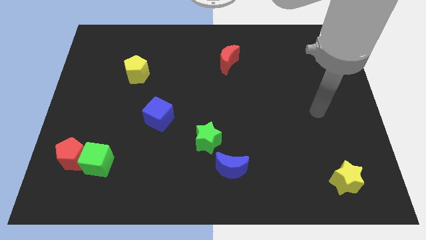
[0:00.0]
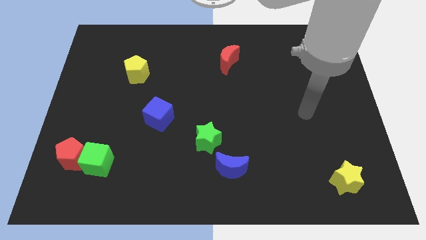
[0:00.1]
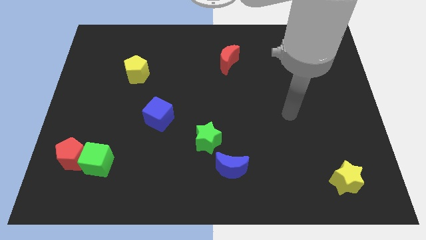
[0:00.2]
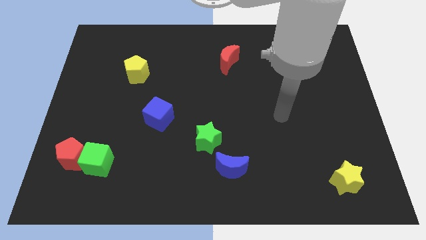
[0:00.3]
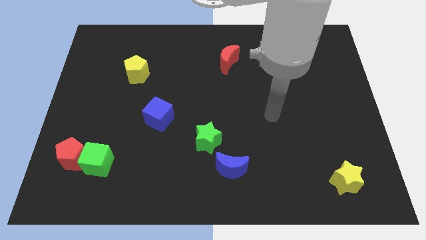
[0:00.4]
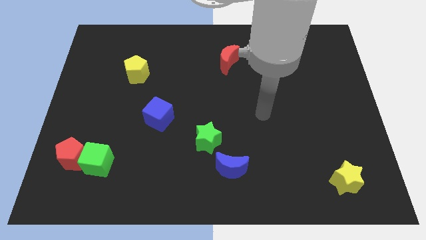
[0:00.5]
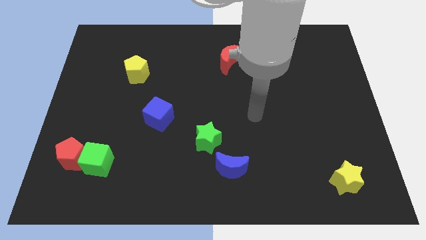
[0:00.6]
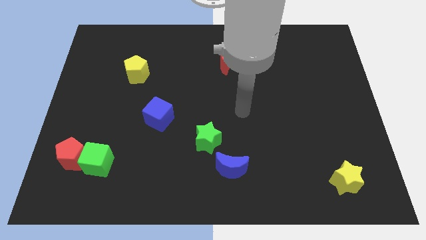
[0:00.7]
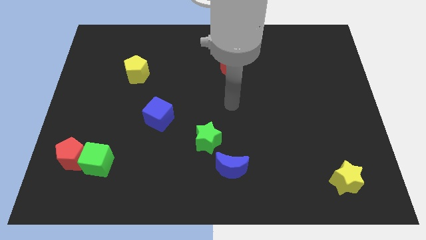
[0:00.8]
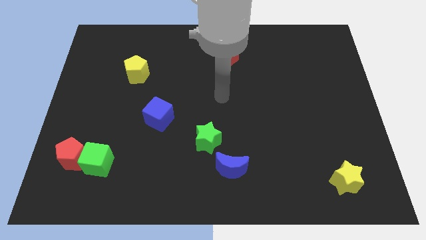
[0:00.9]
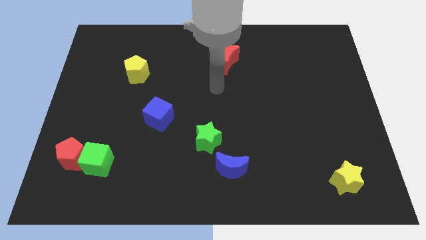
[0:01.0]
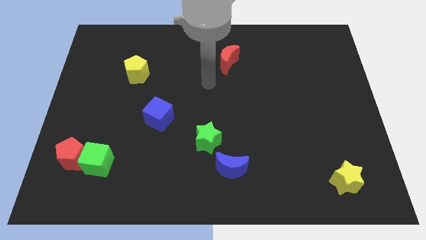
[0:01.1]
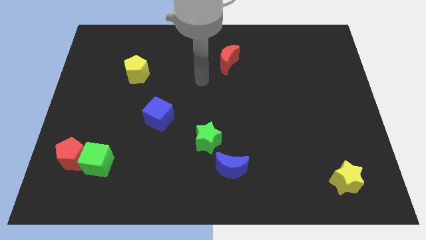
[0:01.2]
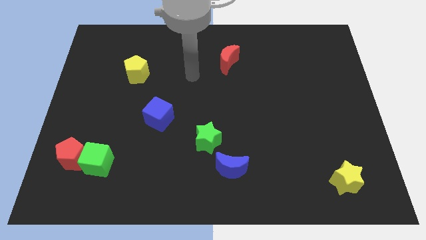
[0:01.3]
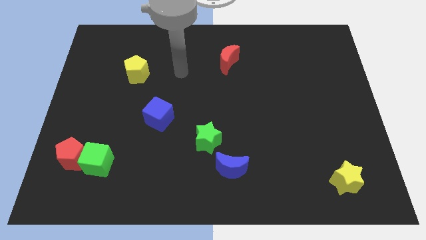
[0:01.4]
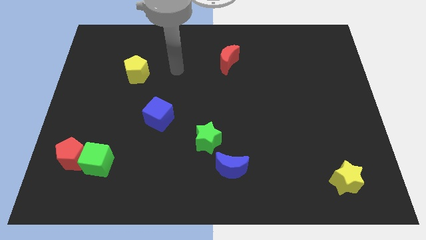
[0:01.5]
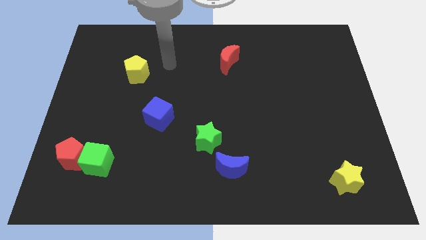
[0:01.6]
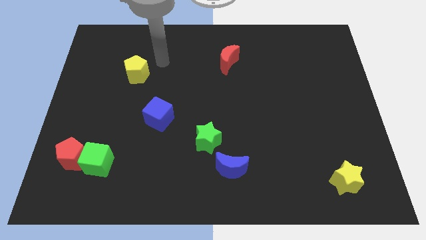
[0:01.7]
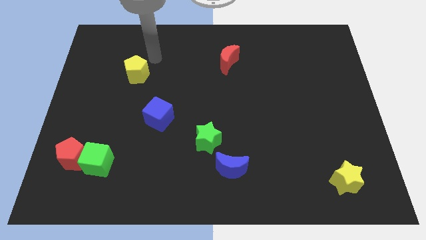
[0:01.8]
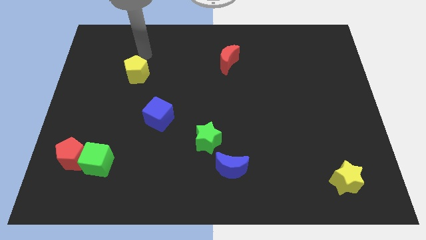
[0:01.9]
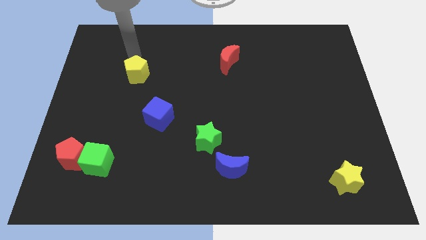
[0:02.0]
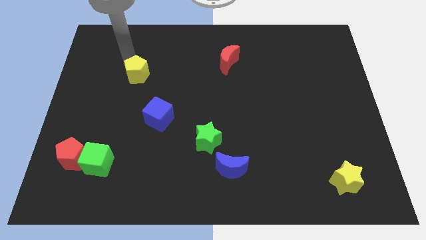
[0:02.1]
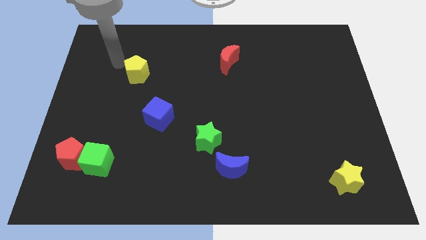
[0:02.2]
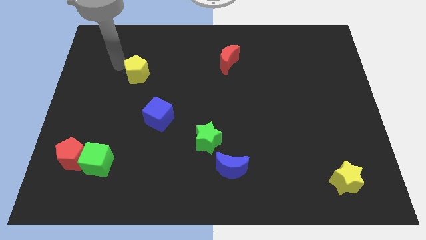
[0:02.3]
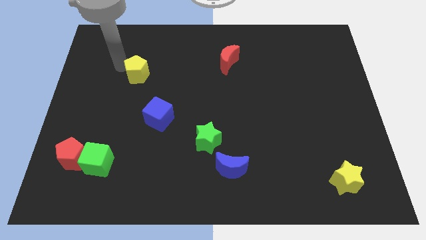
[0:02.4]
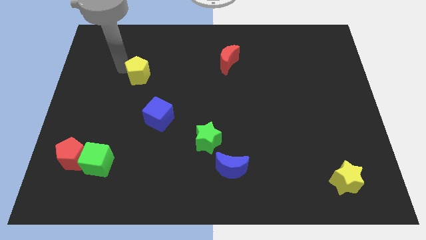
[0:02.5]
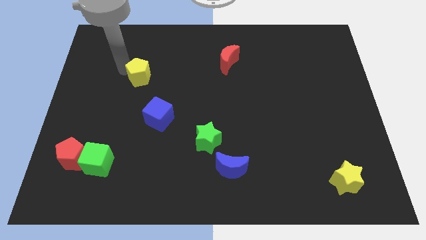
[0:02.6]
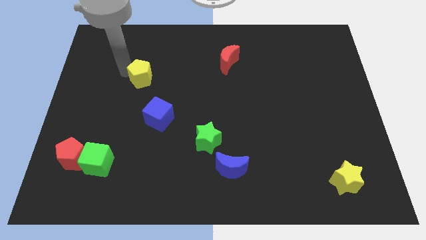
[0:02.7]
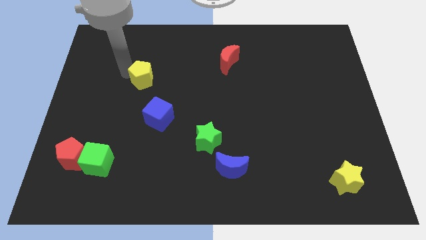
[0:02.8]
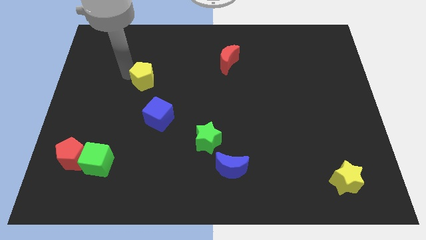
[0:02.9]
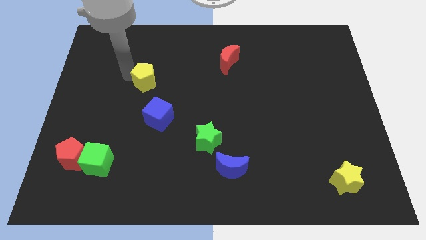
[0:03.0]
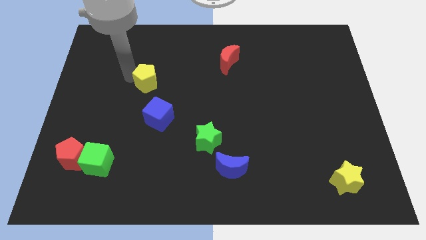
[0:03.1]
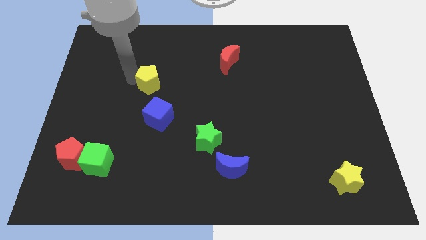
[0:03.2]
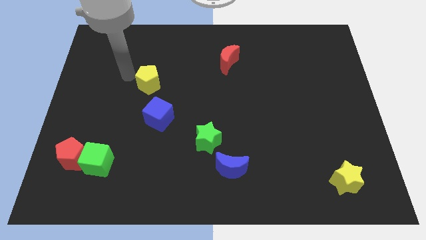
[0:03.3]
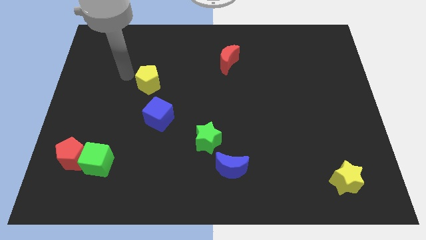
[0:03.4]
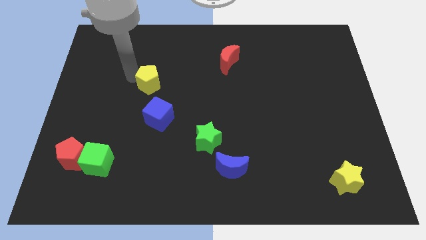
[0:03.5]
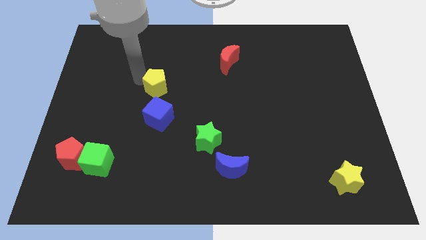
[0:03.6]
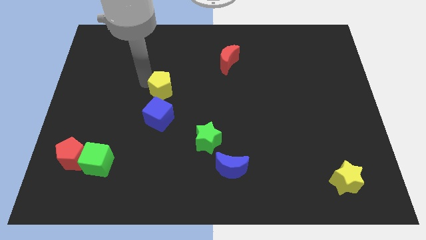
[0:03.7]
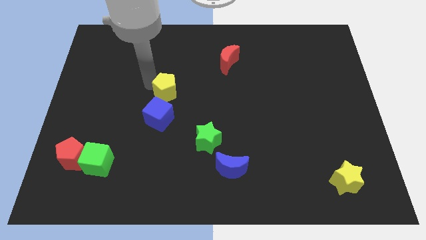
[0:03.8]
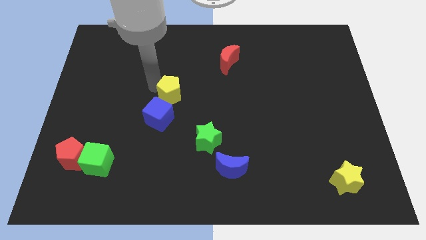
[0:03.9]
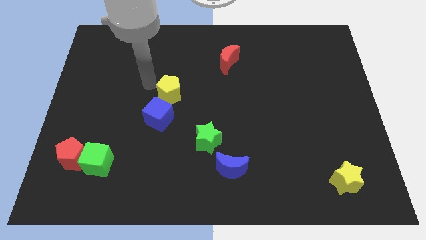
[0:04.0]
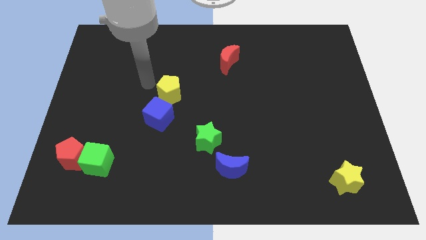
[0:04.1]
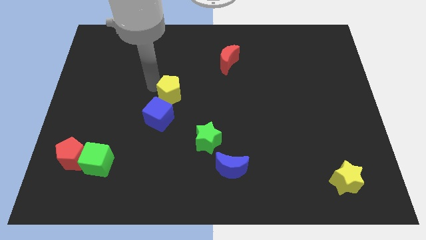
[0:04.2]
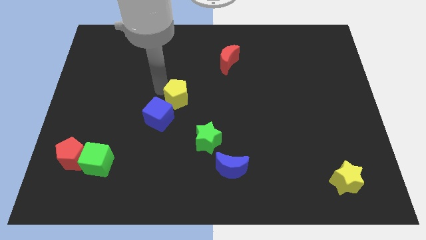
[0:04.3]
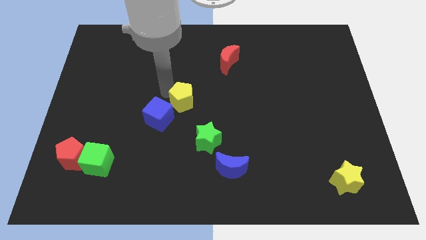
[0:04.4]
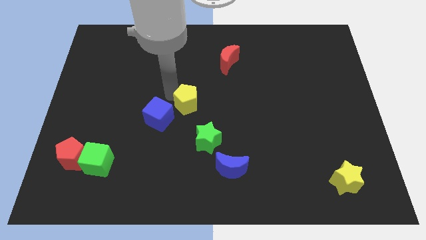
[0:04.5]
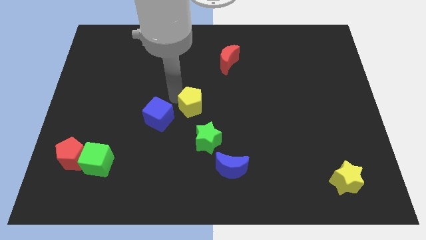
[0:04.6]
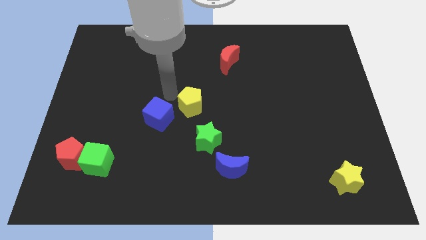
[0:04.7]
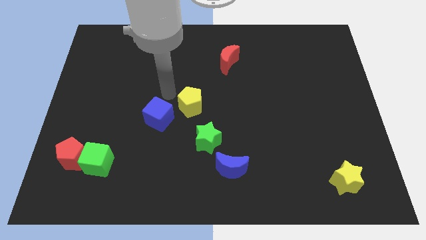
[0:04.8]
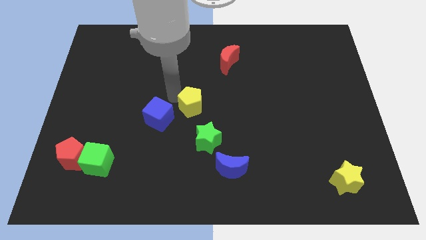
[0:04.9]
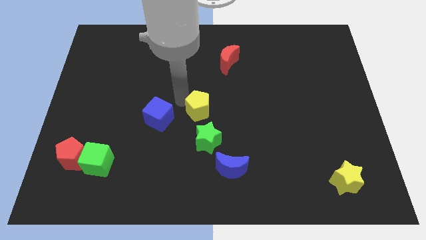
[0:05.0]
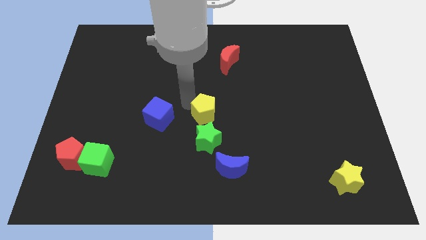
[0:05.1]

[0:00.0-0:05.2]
push the yellow pentagon downwards and to the right

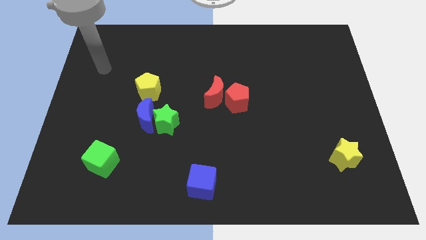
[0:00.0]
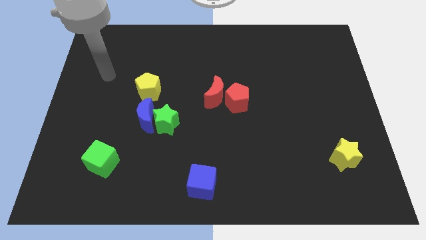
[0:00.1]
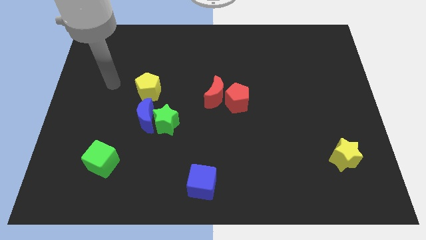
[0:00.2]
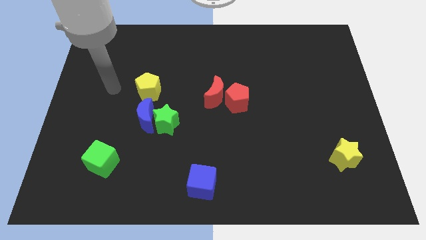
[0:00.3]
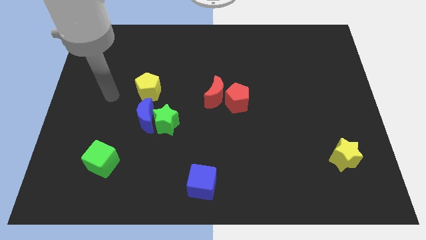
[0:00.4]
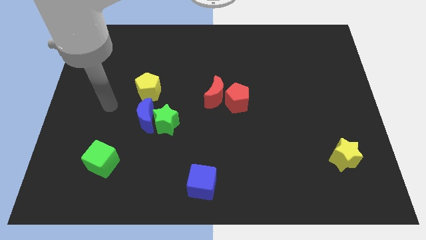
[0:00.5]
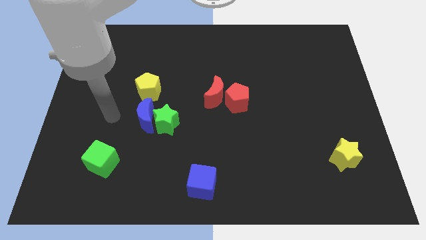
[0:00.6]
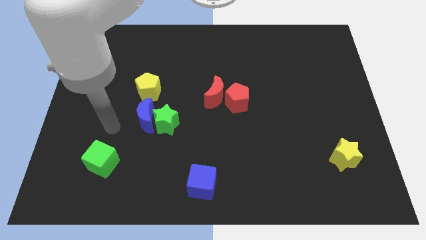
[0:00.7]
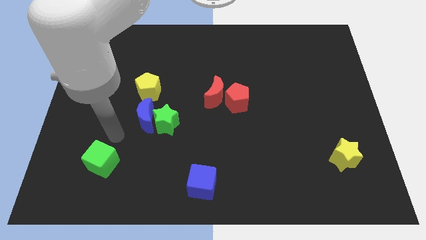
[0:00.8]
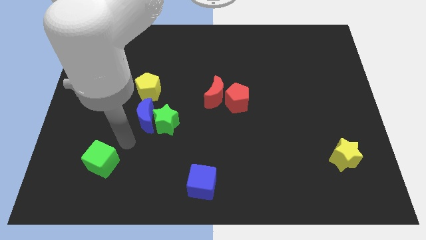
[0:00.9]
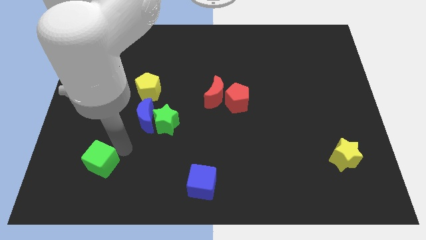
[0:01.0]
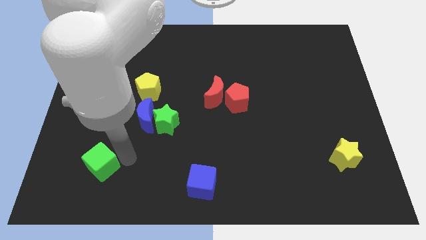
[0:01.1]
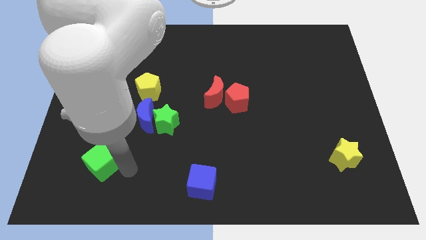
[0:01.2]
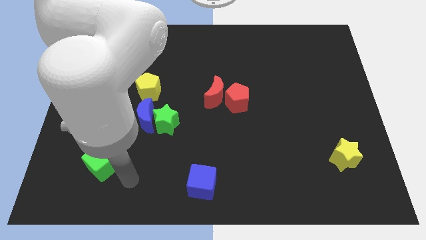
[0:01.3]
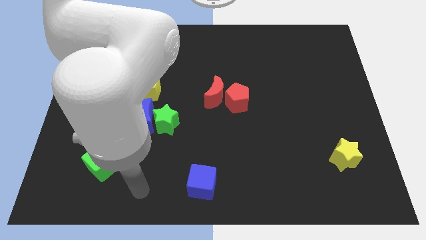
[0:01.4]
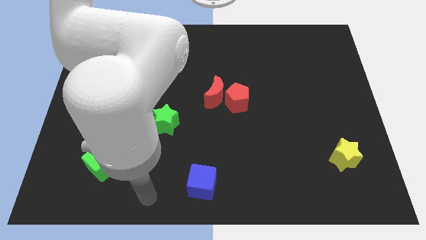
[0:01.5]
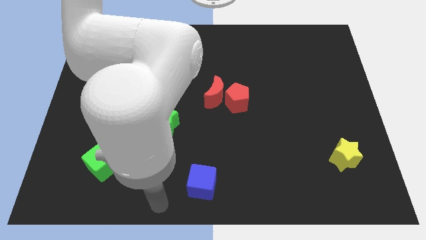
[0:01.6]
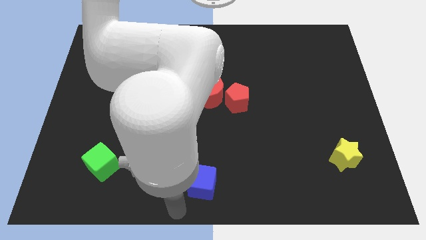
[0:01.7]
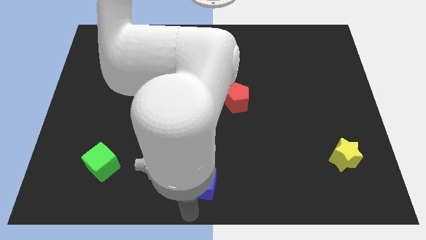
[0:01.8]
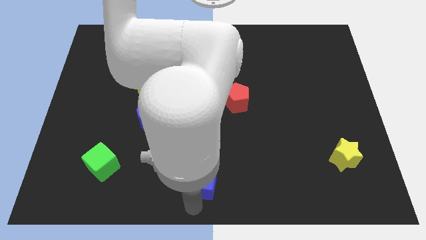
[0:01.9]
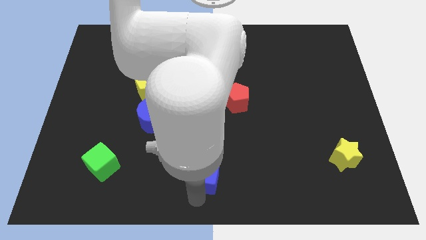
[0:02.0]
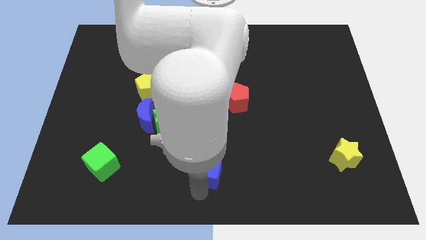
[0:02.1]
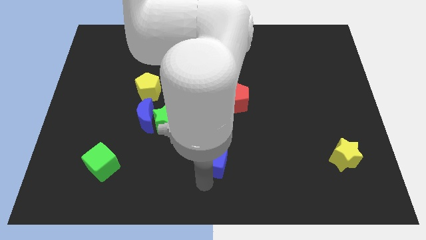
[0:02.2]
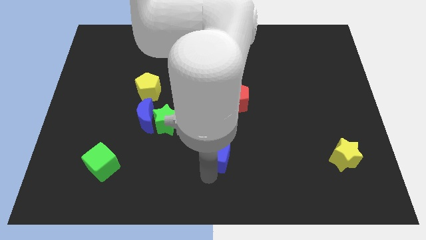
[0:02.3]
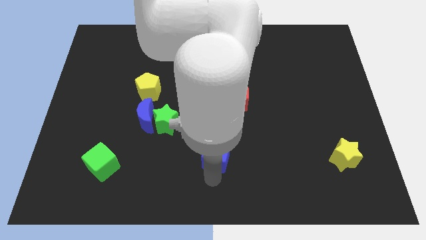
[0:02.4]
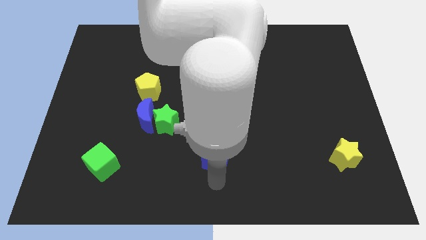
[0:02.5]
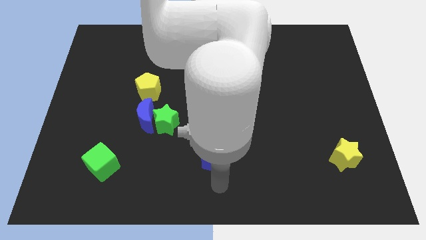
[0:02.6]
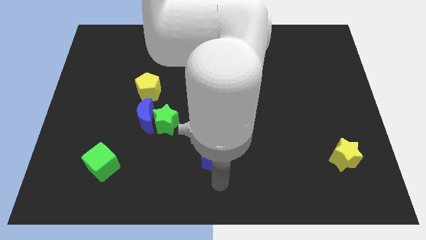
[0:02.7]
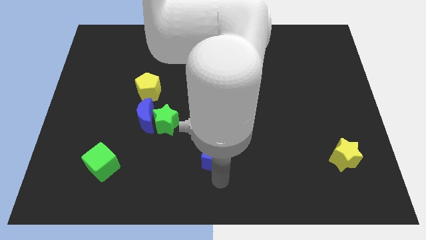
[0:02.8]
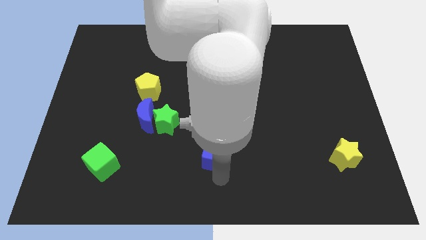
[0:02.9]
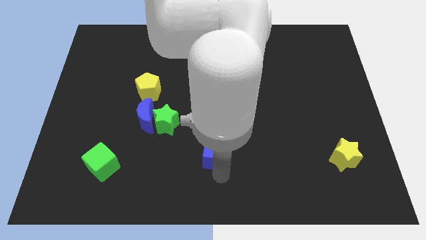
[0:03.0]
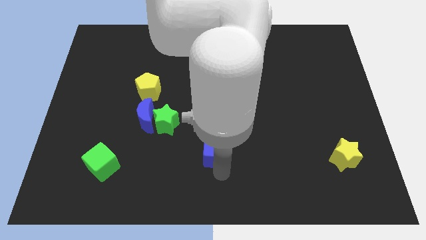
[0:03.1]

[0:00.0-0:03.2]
slightly move the blue cube upwards
